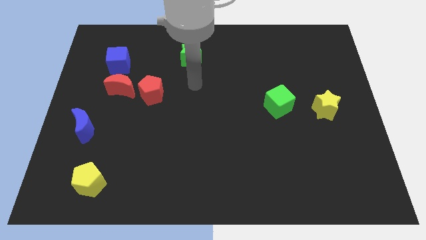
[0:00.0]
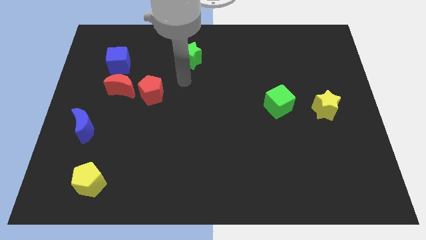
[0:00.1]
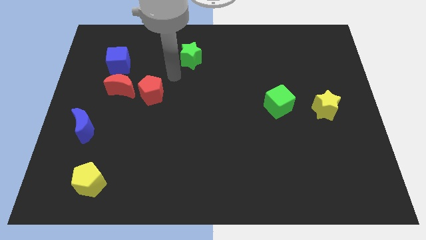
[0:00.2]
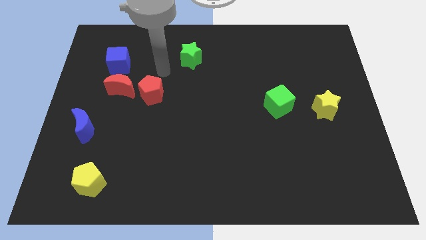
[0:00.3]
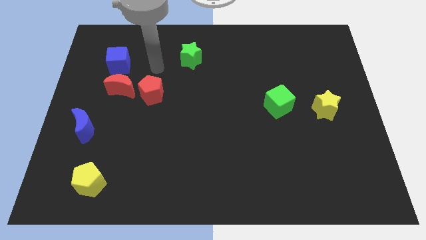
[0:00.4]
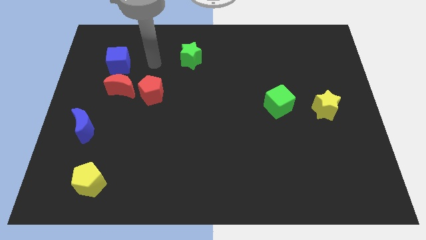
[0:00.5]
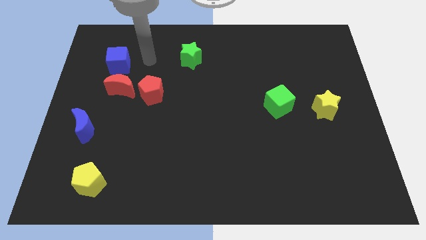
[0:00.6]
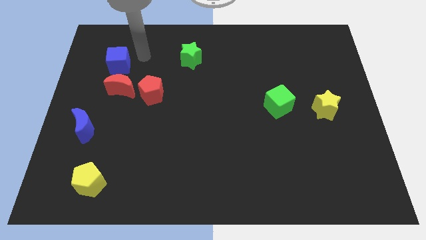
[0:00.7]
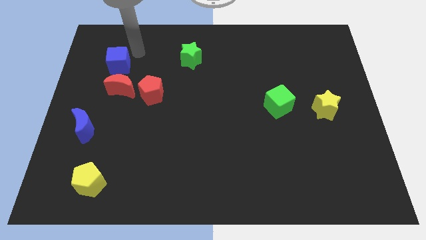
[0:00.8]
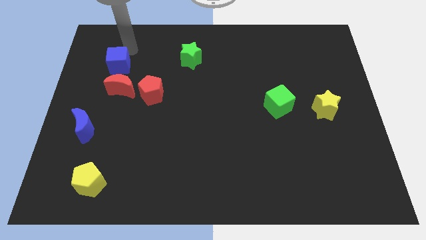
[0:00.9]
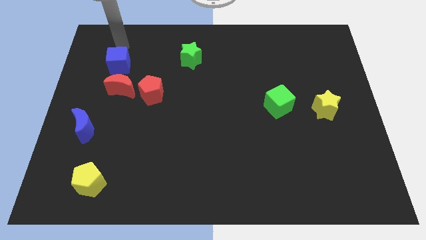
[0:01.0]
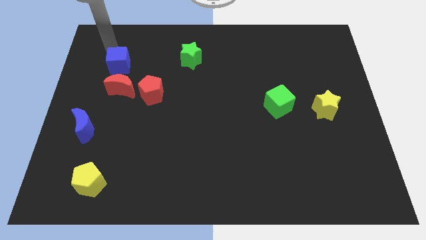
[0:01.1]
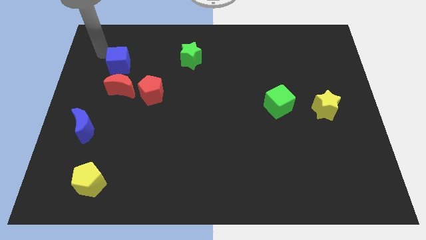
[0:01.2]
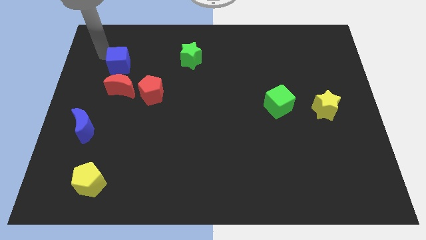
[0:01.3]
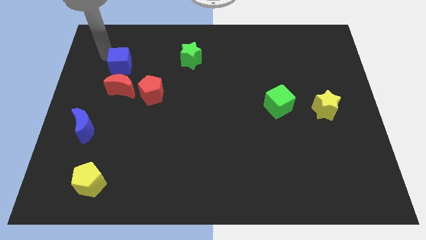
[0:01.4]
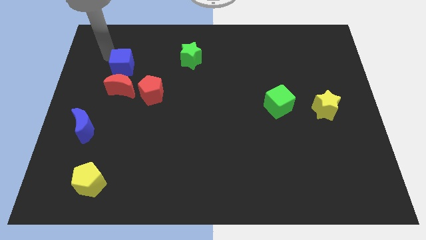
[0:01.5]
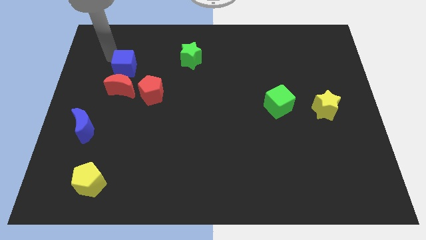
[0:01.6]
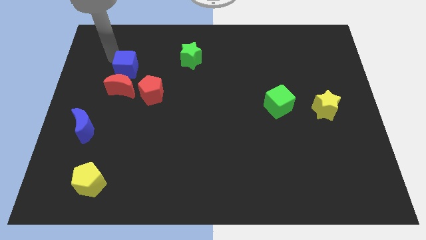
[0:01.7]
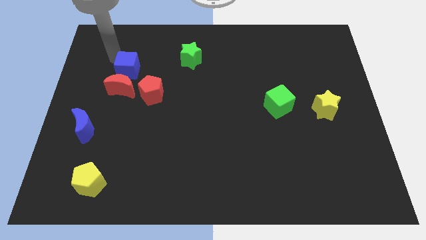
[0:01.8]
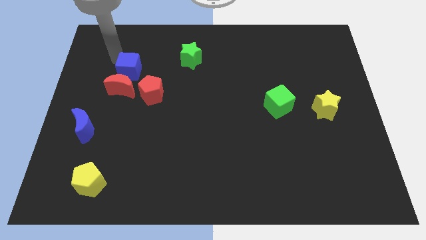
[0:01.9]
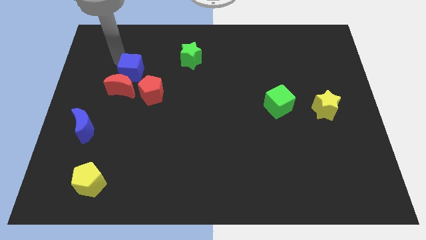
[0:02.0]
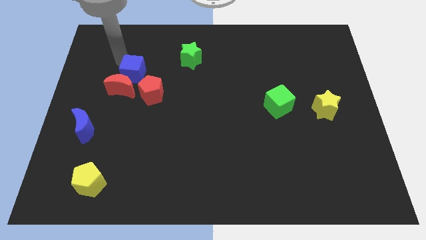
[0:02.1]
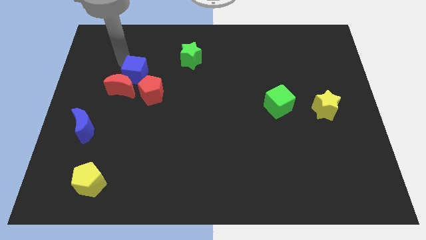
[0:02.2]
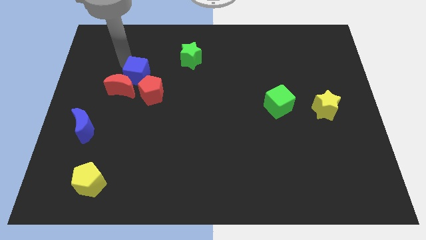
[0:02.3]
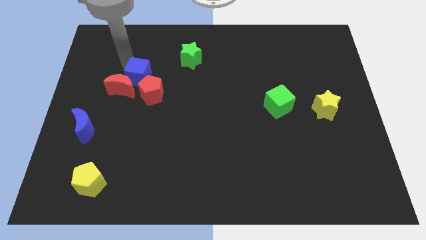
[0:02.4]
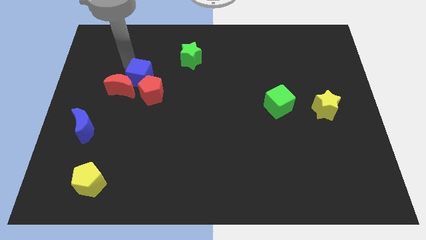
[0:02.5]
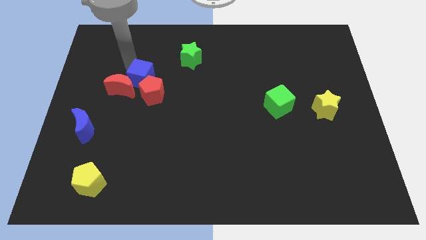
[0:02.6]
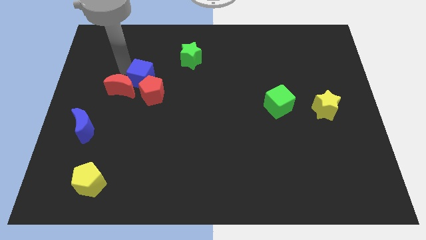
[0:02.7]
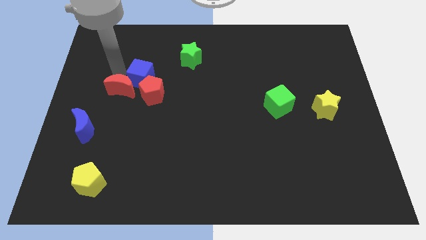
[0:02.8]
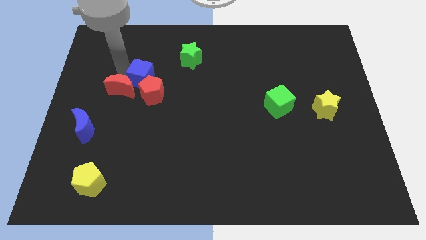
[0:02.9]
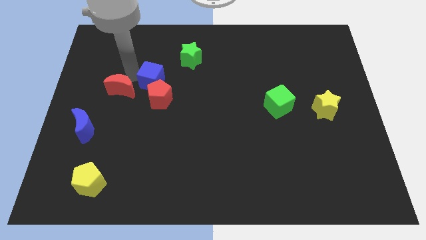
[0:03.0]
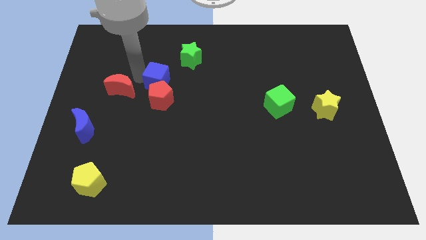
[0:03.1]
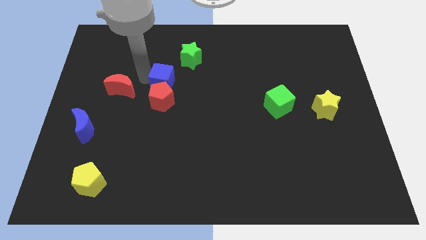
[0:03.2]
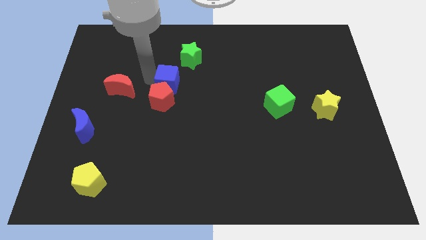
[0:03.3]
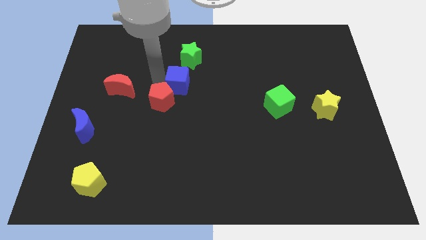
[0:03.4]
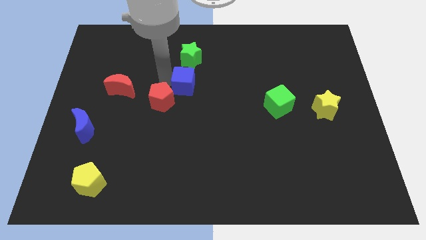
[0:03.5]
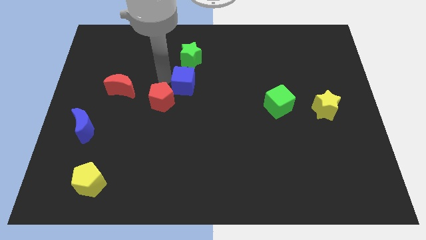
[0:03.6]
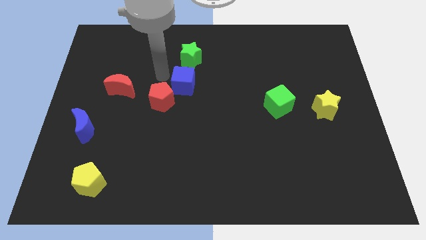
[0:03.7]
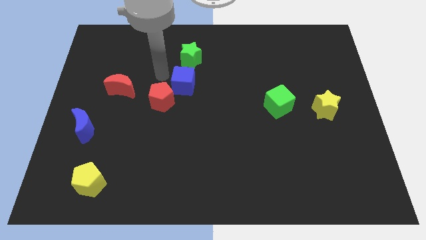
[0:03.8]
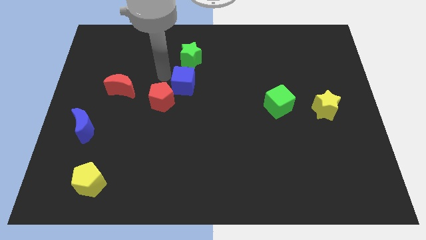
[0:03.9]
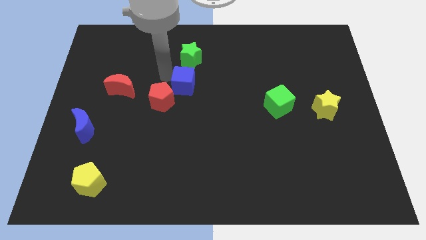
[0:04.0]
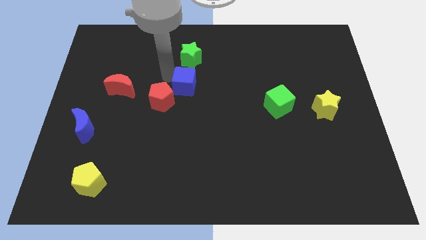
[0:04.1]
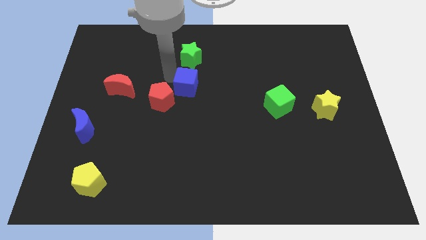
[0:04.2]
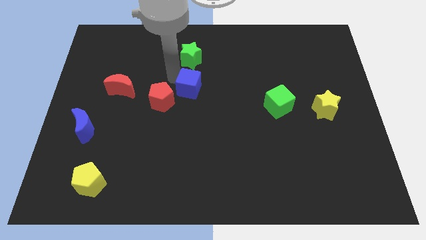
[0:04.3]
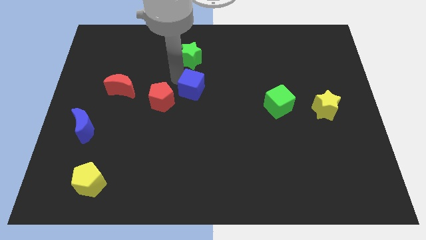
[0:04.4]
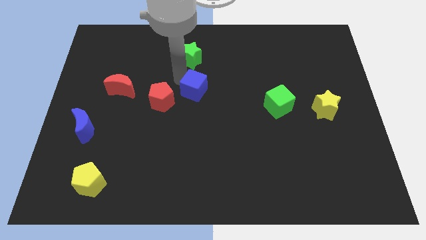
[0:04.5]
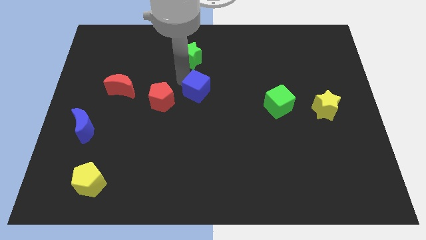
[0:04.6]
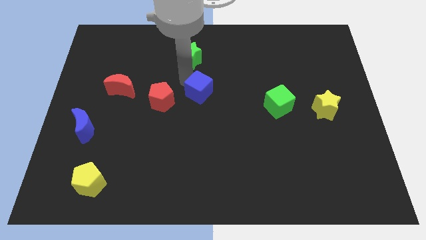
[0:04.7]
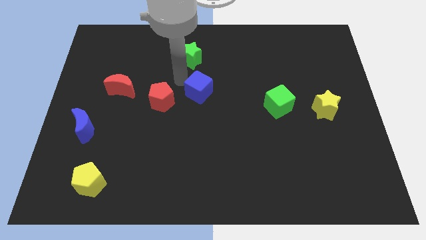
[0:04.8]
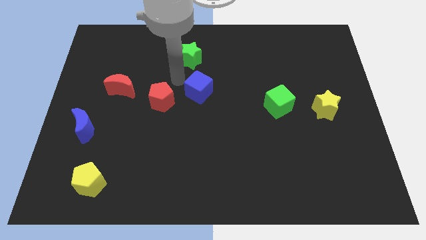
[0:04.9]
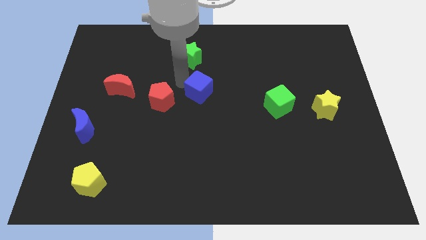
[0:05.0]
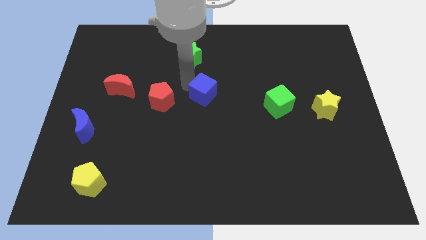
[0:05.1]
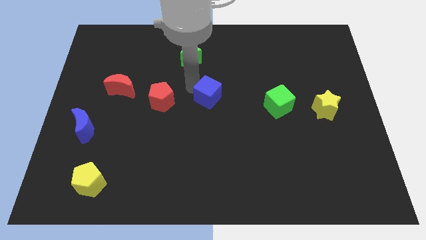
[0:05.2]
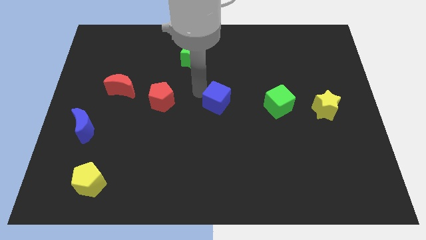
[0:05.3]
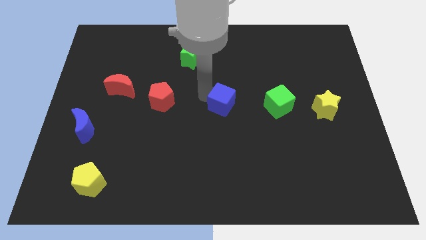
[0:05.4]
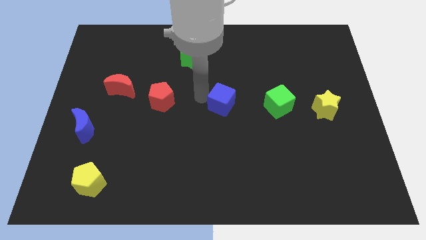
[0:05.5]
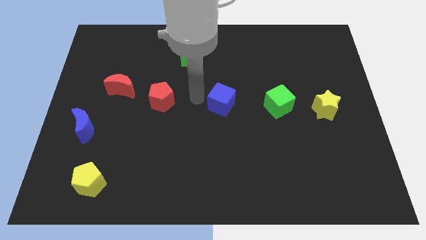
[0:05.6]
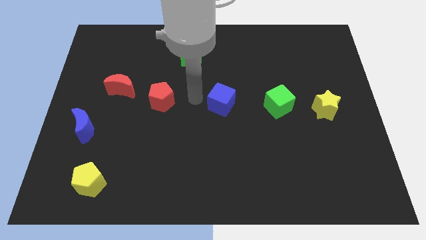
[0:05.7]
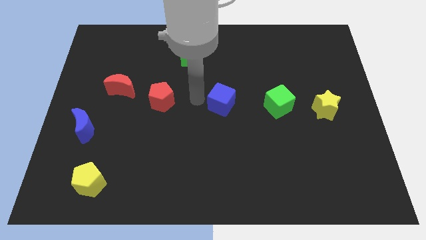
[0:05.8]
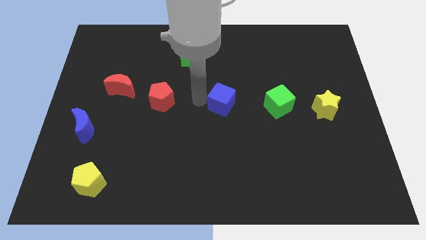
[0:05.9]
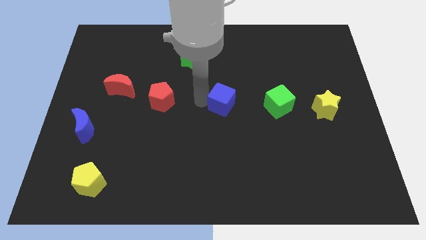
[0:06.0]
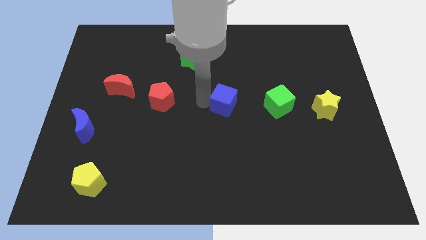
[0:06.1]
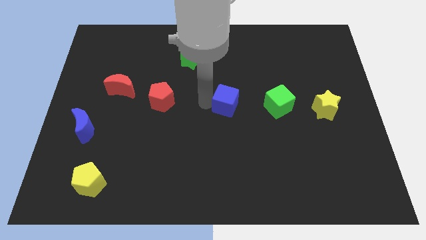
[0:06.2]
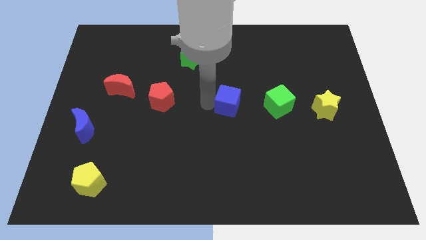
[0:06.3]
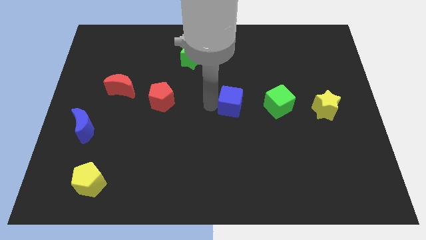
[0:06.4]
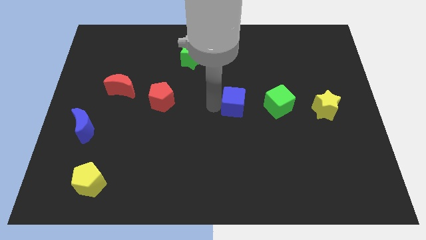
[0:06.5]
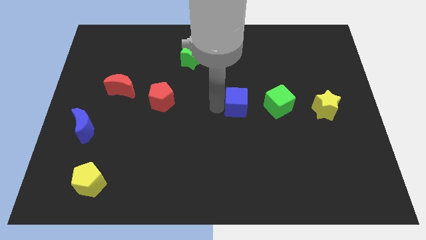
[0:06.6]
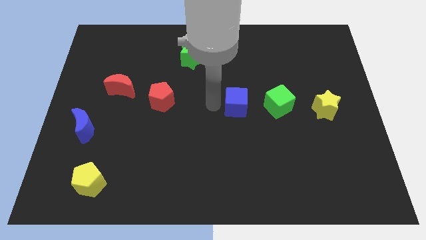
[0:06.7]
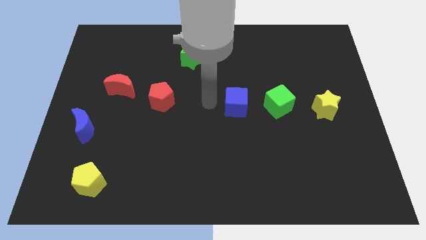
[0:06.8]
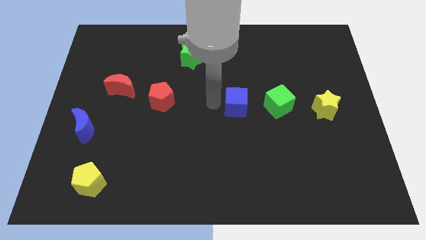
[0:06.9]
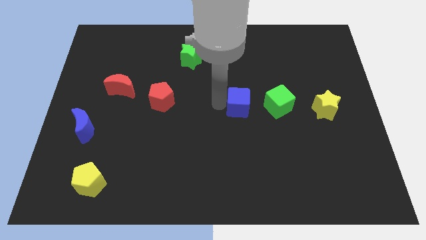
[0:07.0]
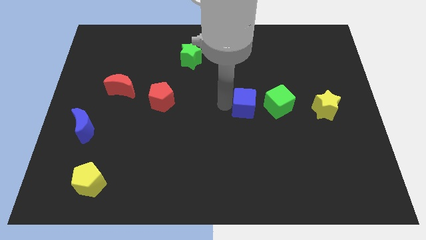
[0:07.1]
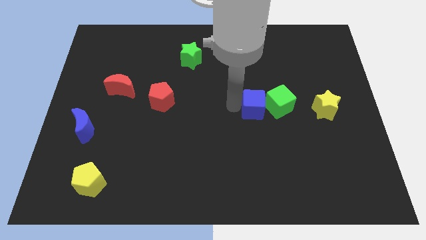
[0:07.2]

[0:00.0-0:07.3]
move the blue cube to the green cube
